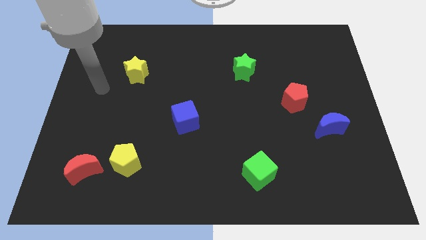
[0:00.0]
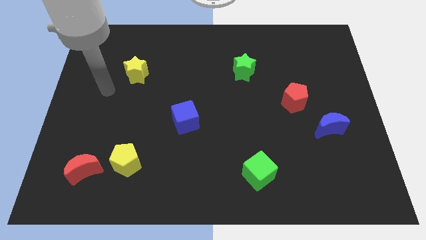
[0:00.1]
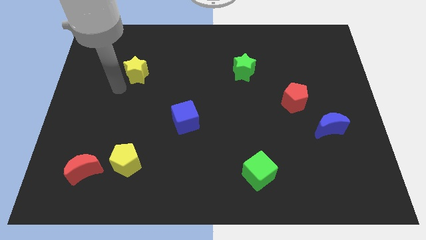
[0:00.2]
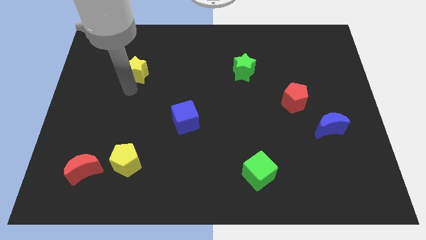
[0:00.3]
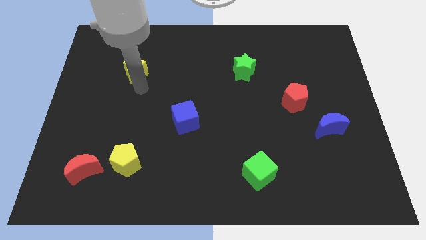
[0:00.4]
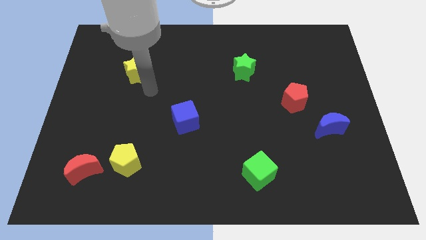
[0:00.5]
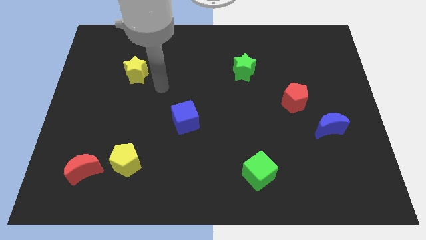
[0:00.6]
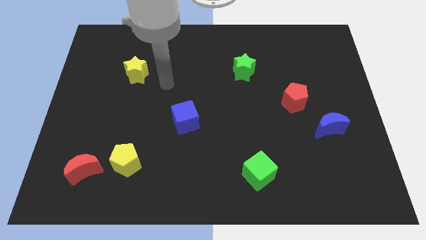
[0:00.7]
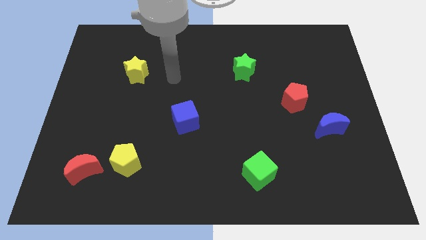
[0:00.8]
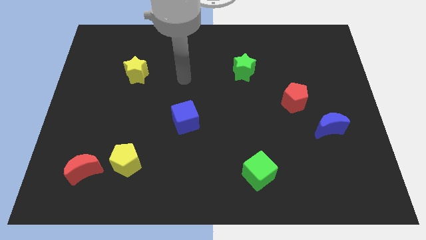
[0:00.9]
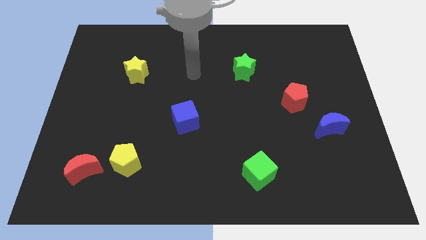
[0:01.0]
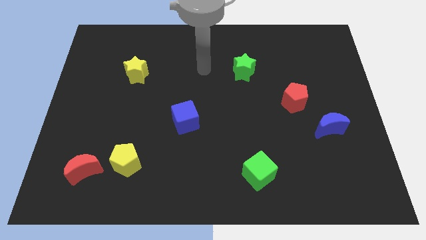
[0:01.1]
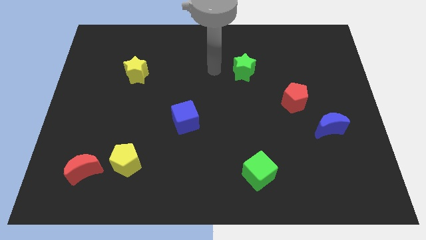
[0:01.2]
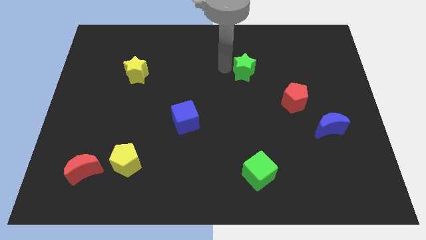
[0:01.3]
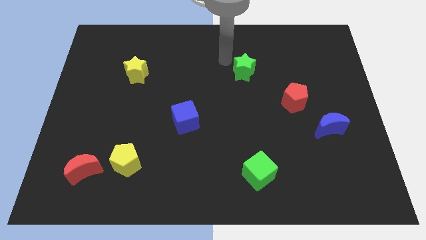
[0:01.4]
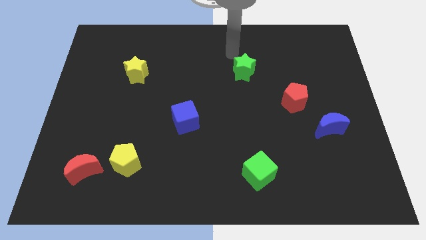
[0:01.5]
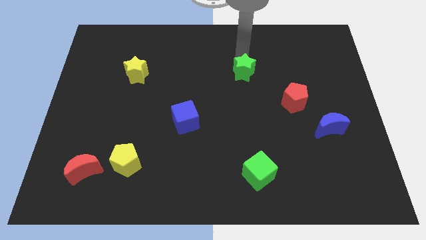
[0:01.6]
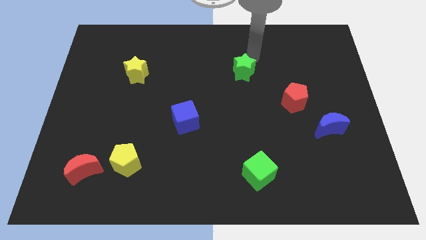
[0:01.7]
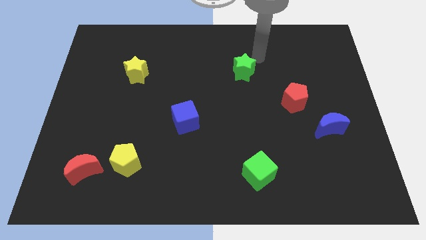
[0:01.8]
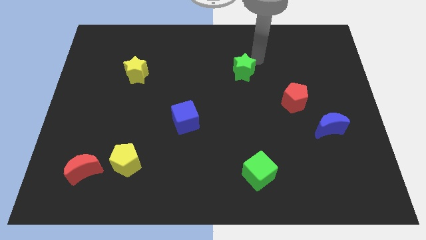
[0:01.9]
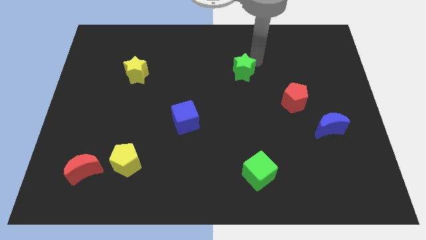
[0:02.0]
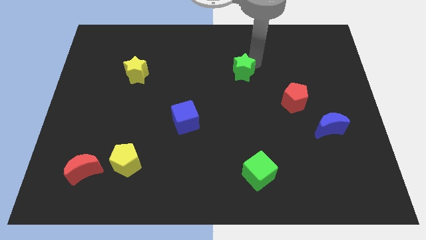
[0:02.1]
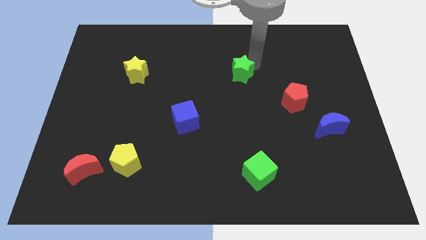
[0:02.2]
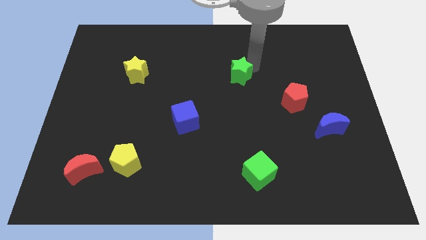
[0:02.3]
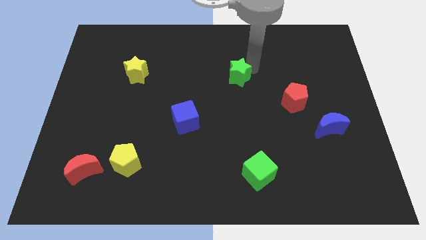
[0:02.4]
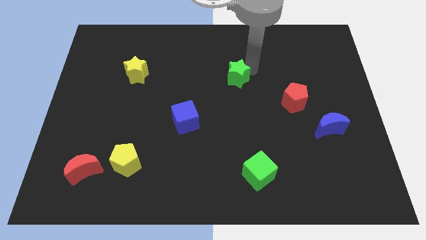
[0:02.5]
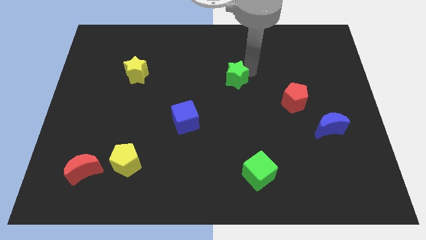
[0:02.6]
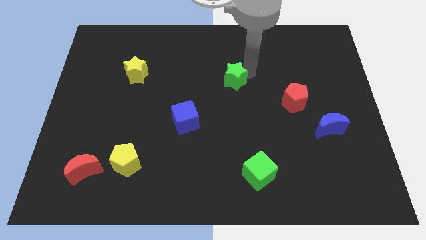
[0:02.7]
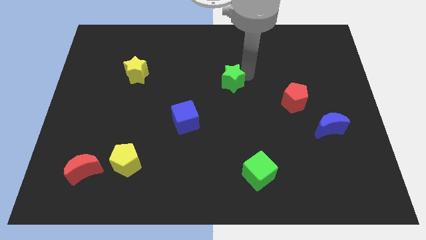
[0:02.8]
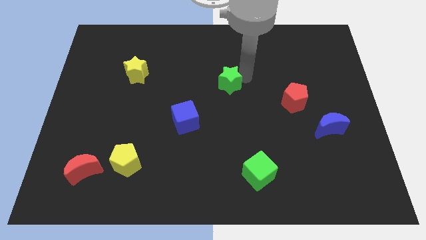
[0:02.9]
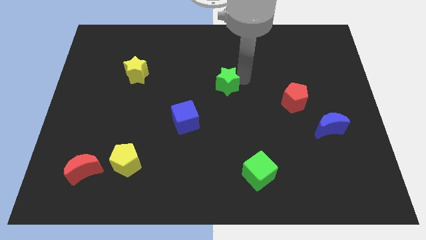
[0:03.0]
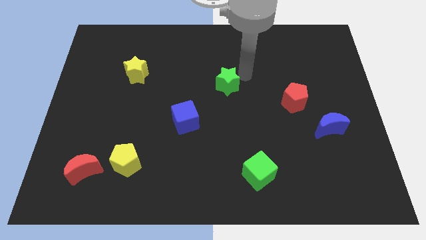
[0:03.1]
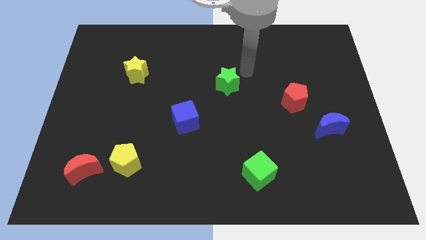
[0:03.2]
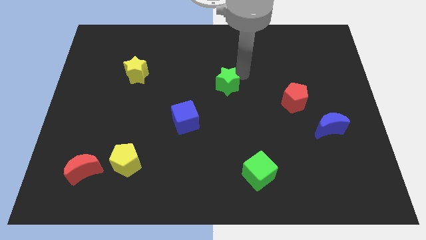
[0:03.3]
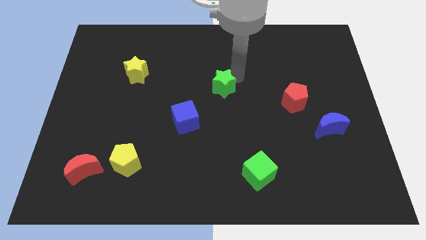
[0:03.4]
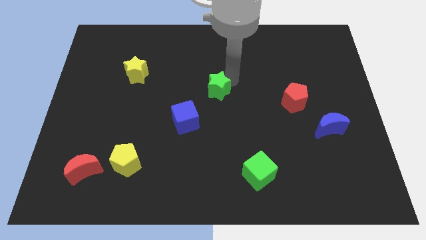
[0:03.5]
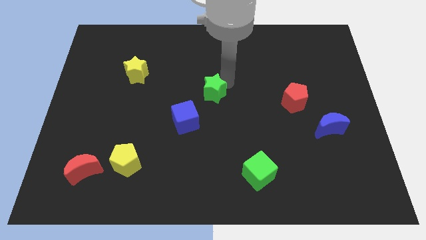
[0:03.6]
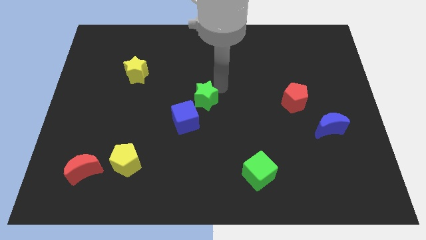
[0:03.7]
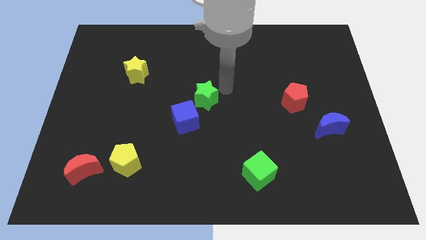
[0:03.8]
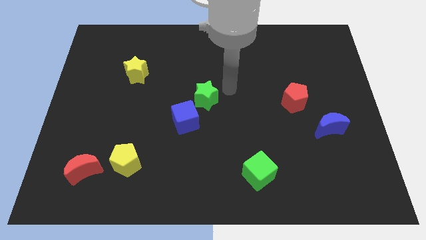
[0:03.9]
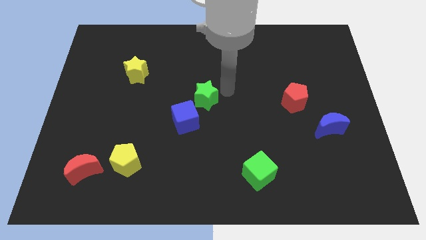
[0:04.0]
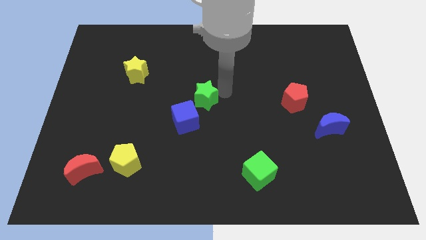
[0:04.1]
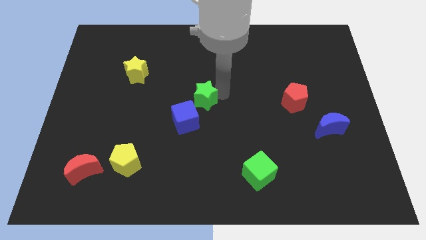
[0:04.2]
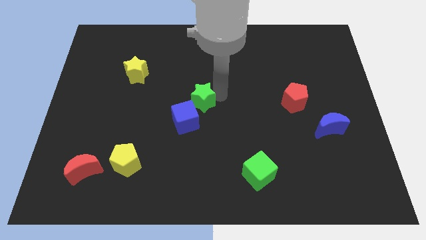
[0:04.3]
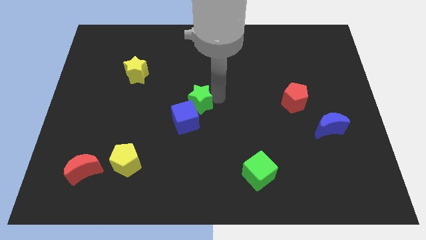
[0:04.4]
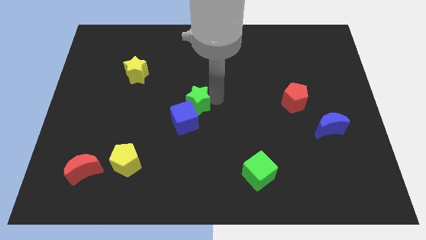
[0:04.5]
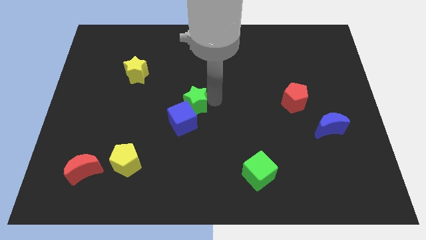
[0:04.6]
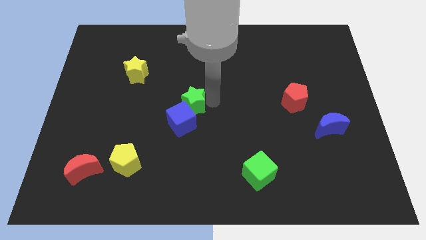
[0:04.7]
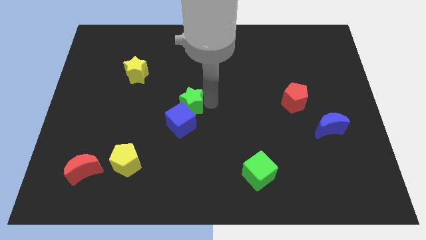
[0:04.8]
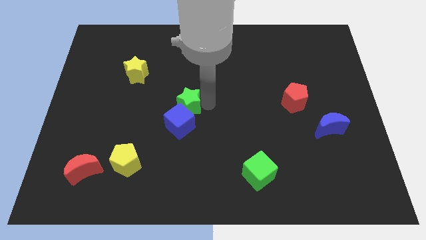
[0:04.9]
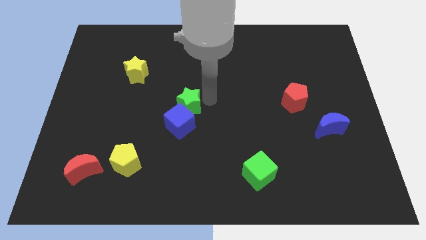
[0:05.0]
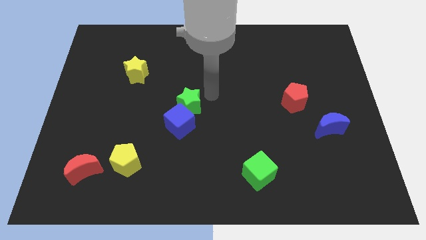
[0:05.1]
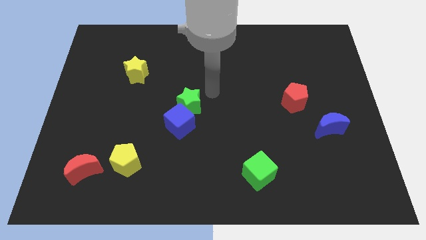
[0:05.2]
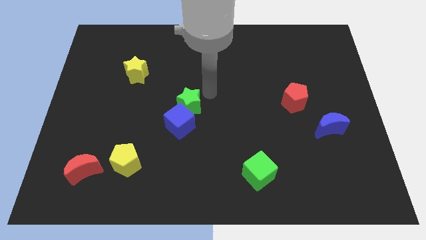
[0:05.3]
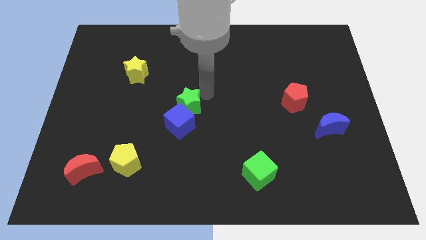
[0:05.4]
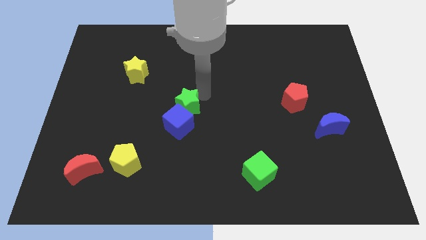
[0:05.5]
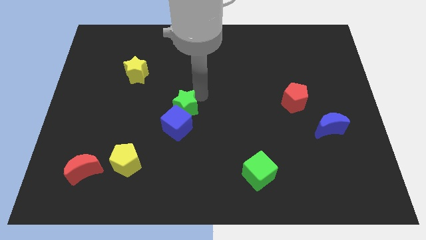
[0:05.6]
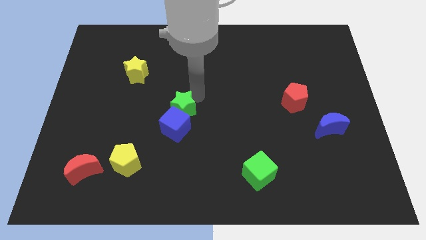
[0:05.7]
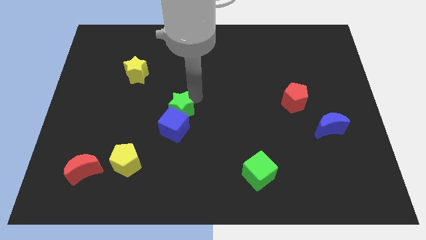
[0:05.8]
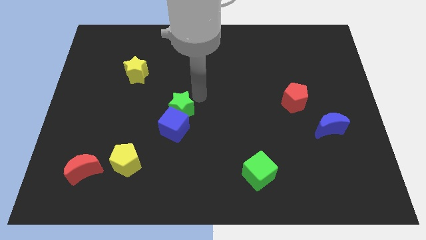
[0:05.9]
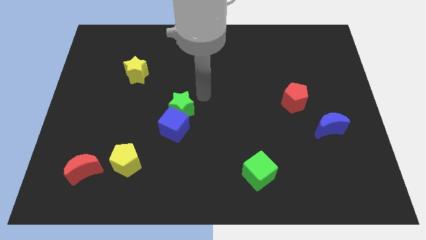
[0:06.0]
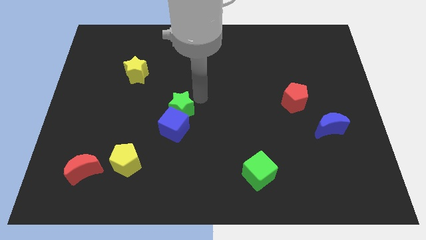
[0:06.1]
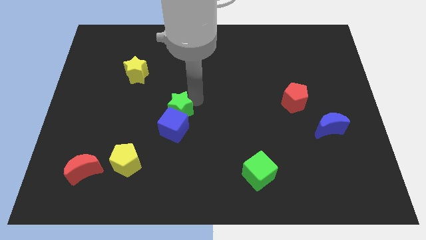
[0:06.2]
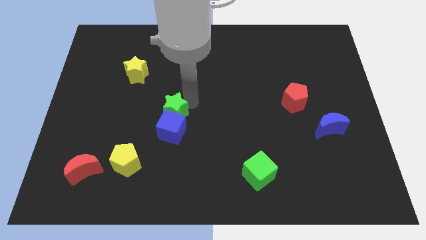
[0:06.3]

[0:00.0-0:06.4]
slide the green star diagonally down and to the left

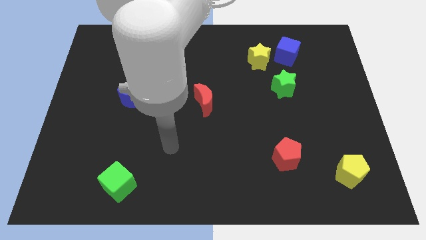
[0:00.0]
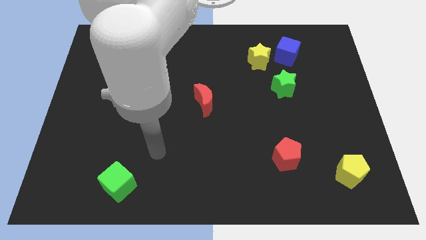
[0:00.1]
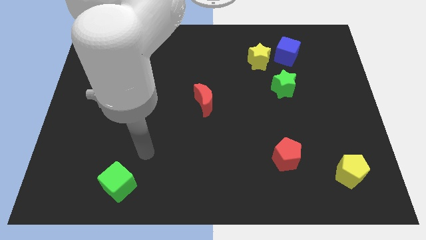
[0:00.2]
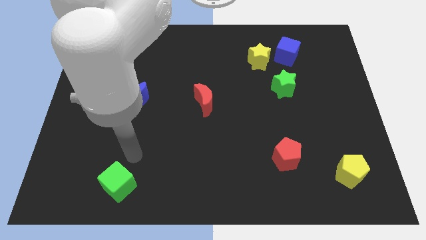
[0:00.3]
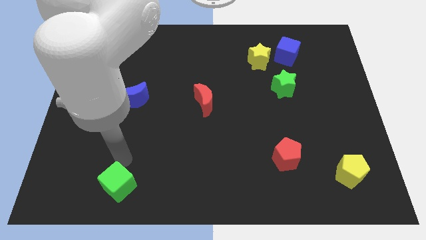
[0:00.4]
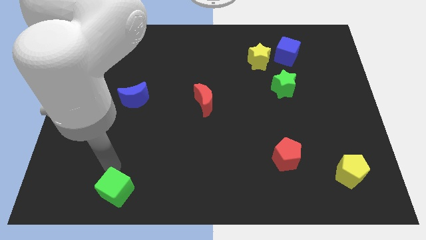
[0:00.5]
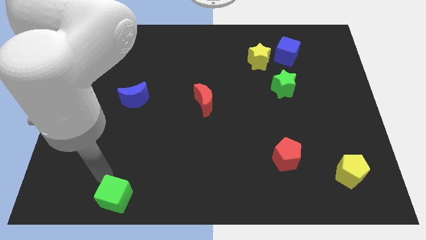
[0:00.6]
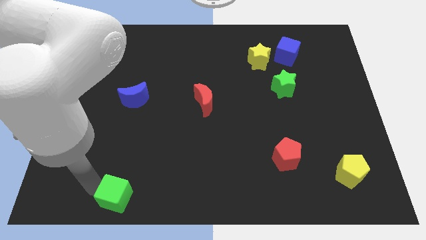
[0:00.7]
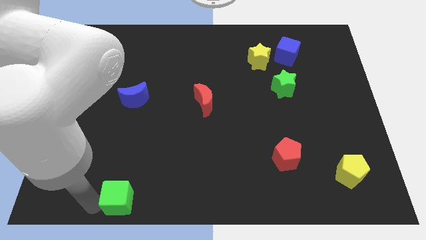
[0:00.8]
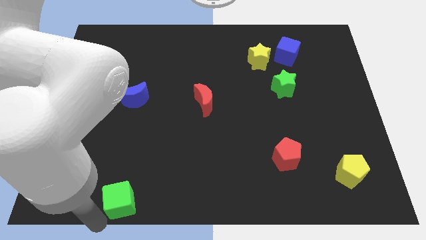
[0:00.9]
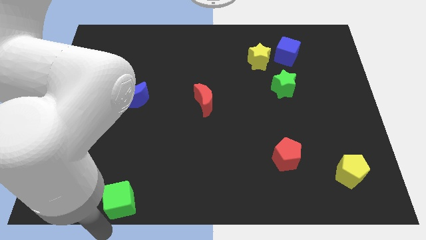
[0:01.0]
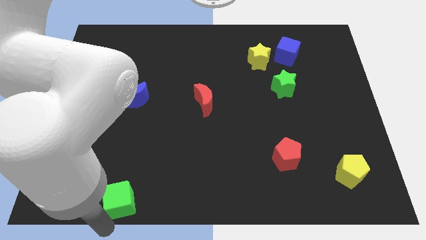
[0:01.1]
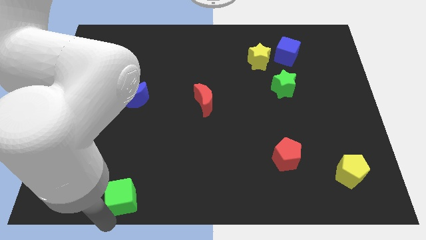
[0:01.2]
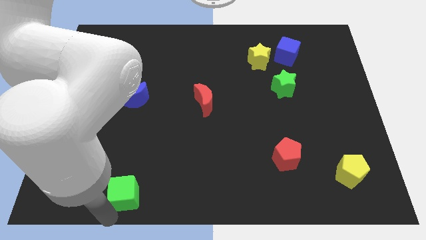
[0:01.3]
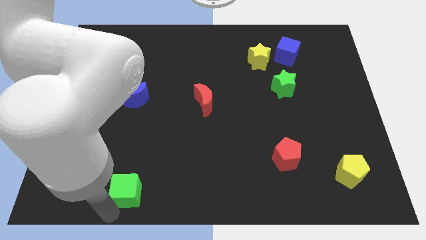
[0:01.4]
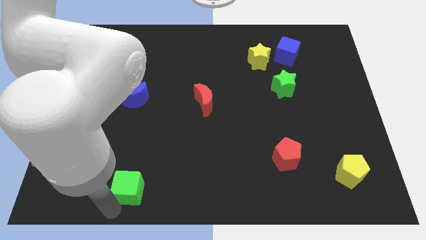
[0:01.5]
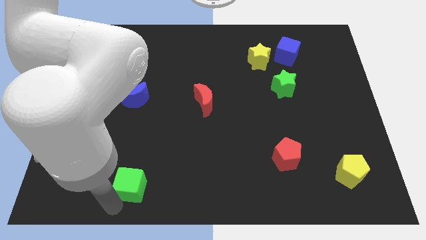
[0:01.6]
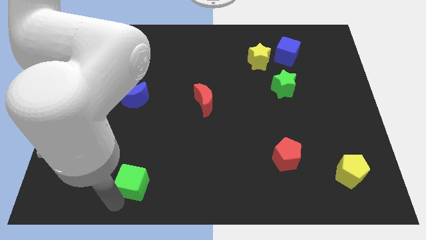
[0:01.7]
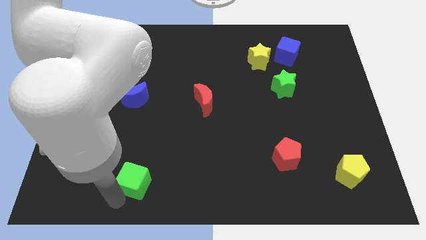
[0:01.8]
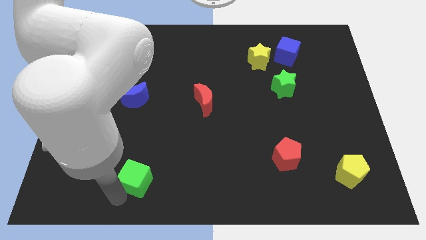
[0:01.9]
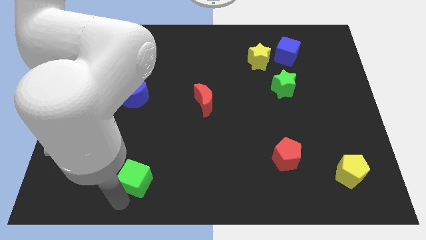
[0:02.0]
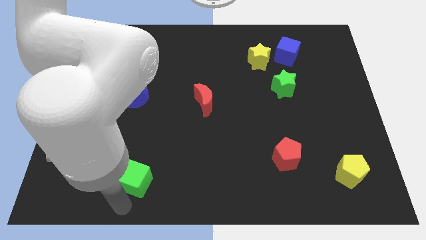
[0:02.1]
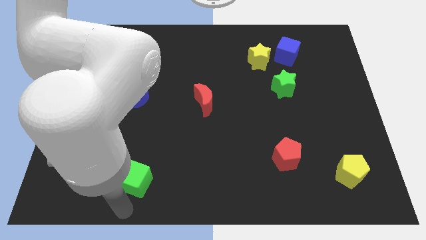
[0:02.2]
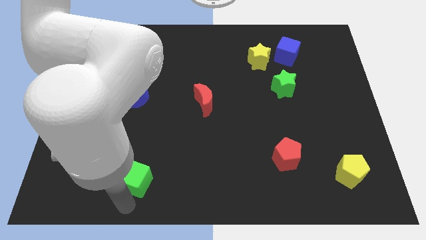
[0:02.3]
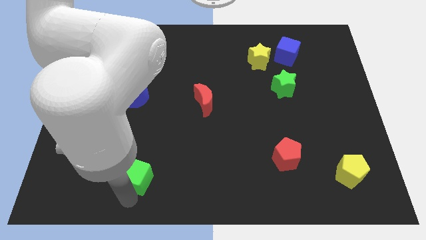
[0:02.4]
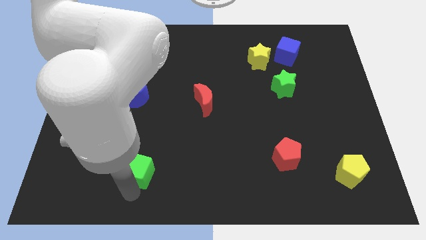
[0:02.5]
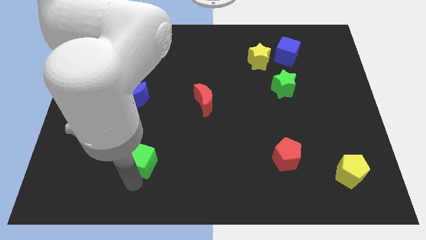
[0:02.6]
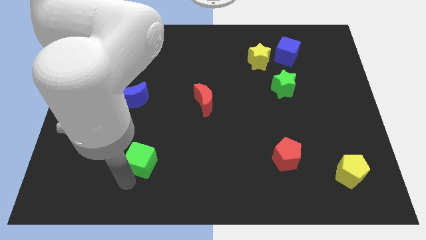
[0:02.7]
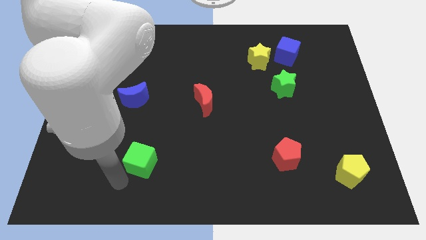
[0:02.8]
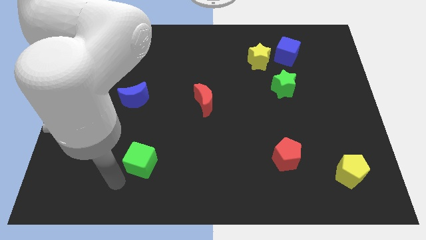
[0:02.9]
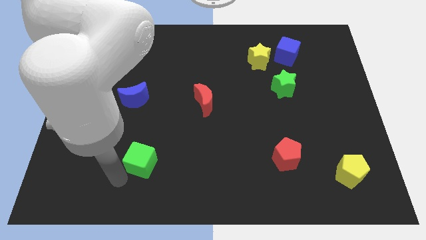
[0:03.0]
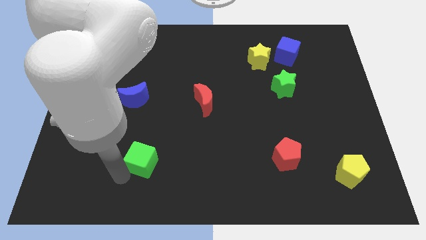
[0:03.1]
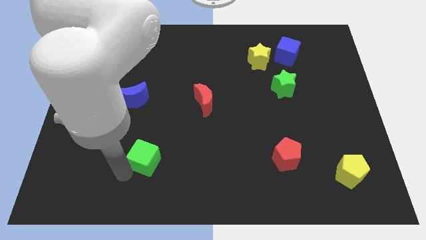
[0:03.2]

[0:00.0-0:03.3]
slightly move the green cube diagonally up and right
